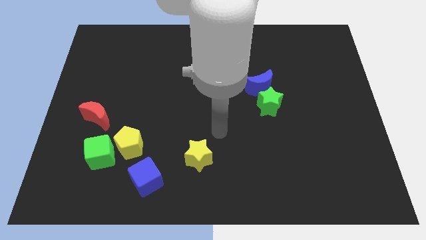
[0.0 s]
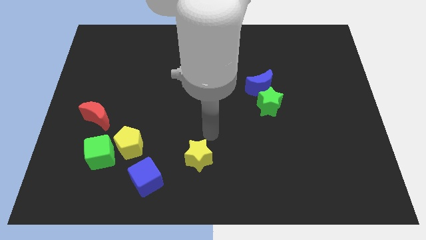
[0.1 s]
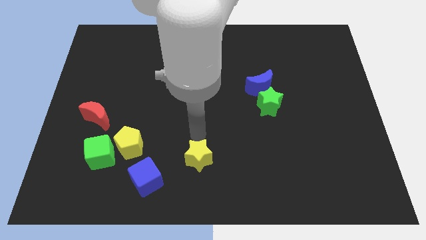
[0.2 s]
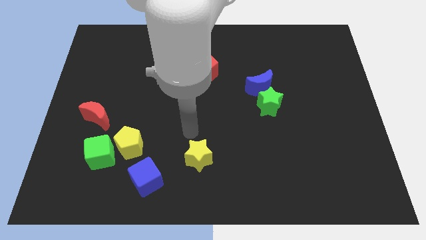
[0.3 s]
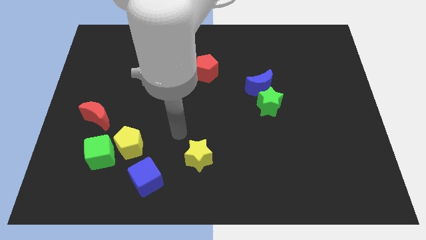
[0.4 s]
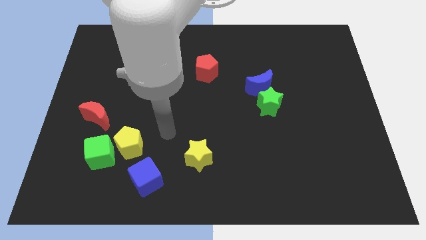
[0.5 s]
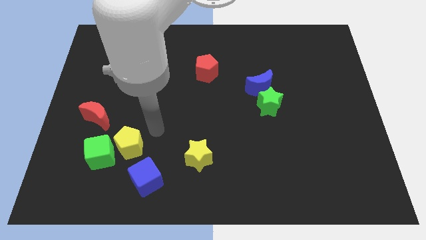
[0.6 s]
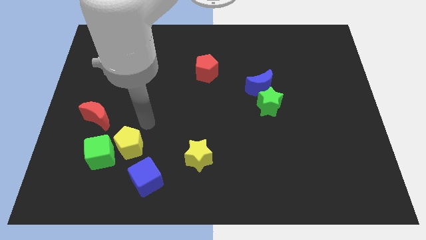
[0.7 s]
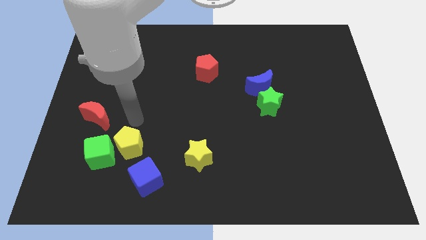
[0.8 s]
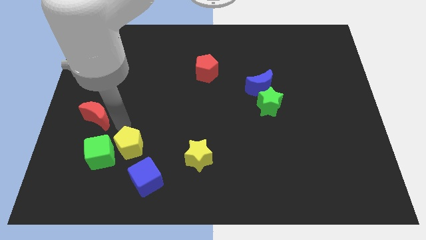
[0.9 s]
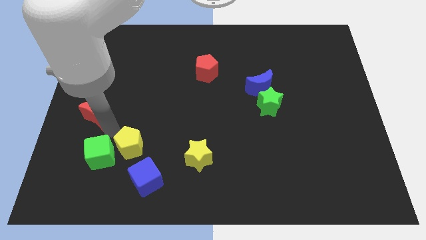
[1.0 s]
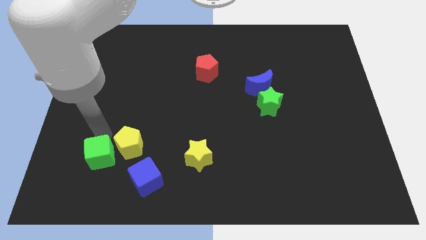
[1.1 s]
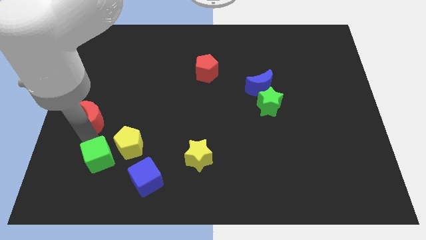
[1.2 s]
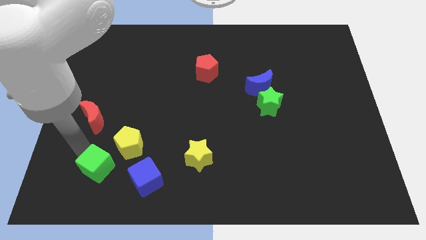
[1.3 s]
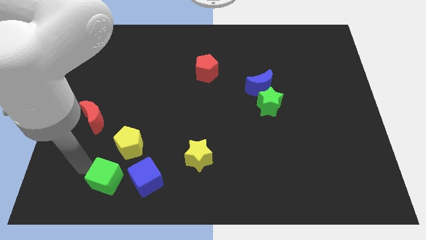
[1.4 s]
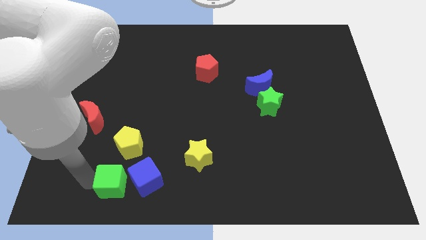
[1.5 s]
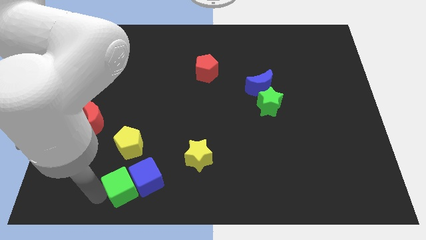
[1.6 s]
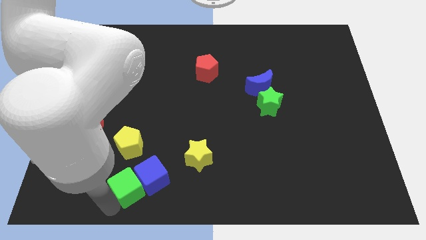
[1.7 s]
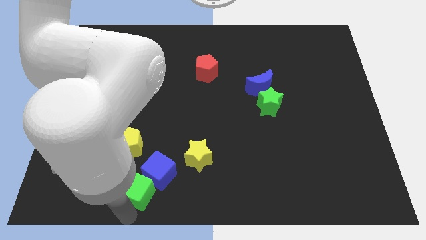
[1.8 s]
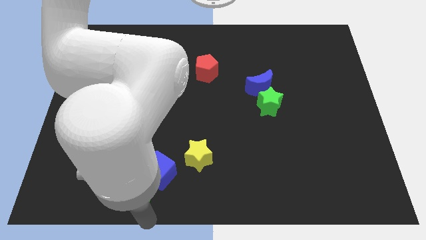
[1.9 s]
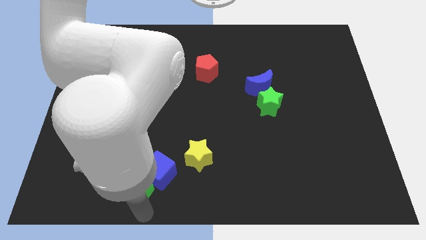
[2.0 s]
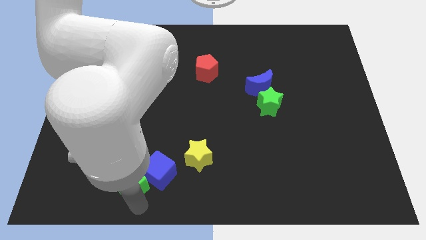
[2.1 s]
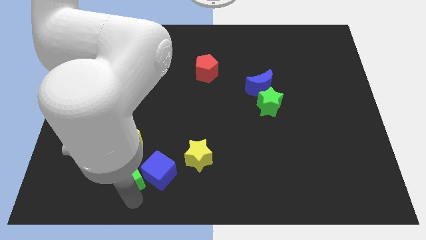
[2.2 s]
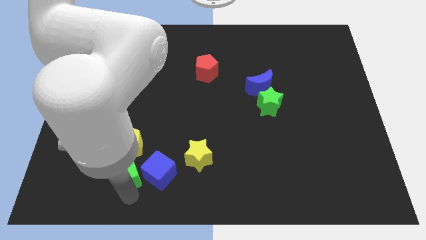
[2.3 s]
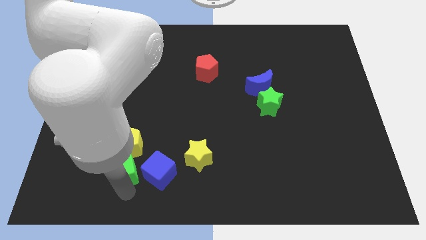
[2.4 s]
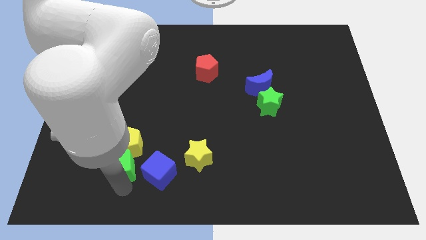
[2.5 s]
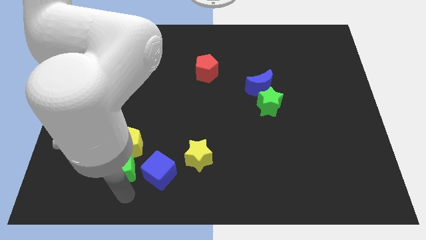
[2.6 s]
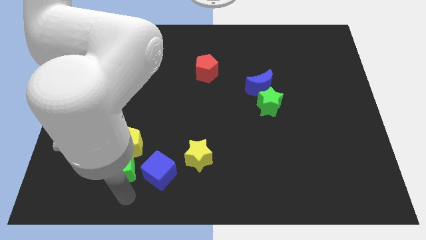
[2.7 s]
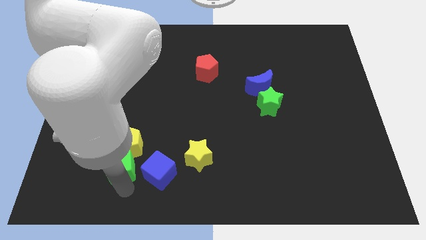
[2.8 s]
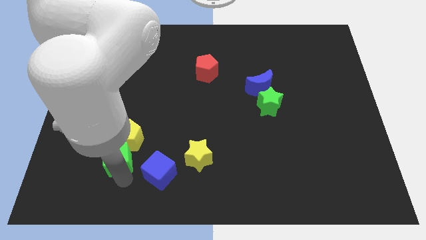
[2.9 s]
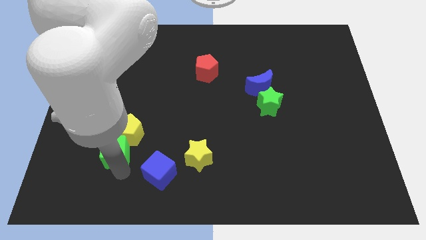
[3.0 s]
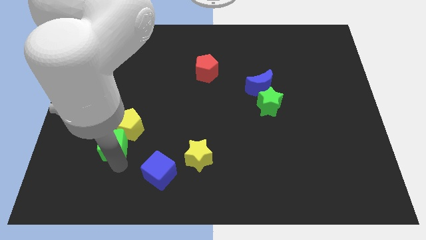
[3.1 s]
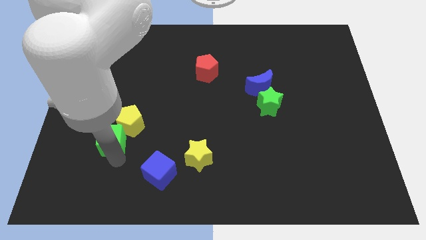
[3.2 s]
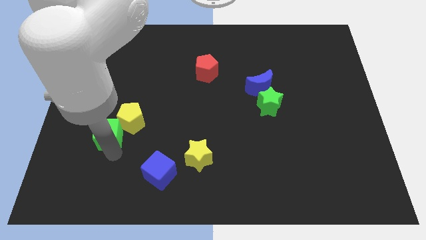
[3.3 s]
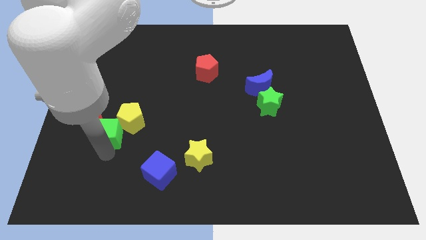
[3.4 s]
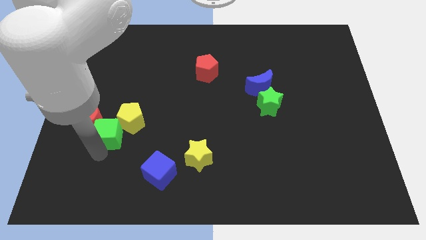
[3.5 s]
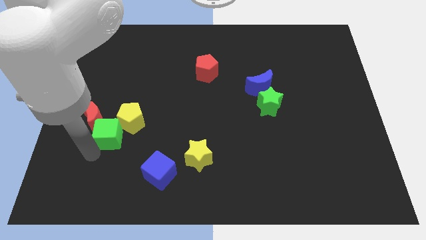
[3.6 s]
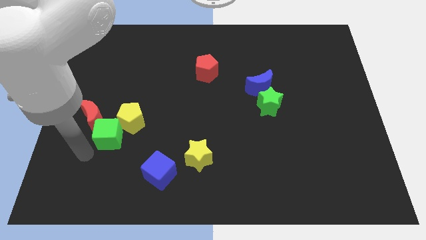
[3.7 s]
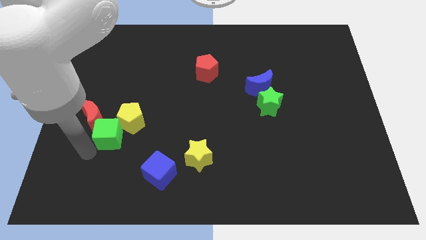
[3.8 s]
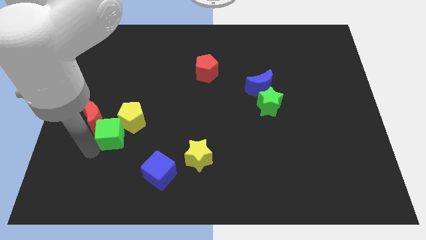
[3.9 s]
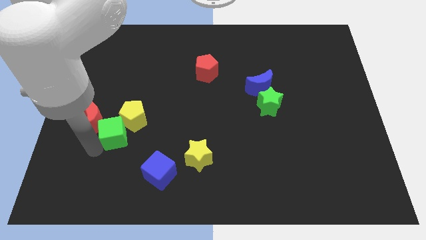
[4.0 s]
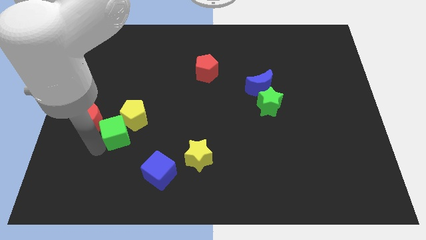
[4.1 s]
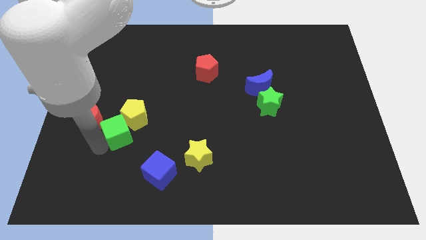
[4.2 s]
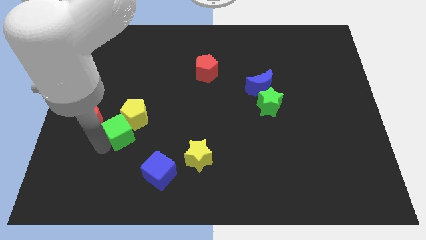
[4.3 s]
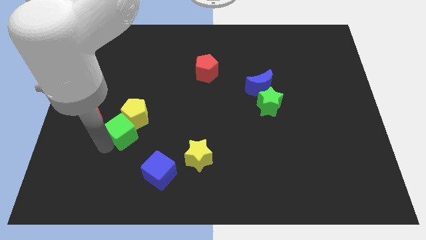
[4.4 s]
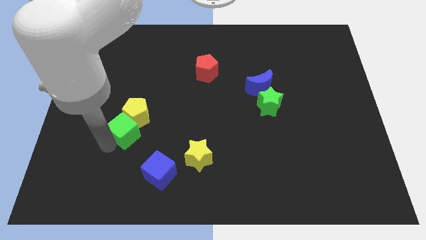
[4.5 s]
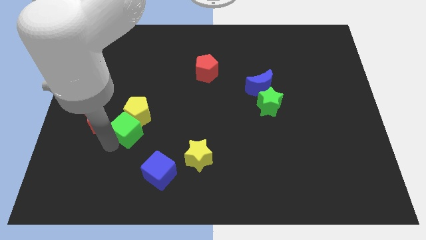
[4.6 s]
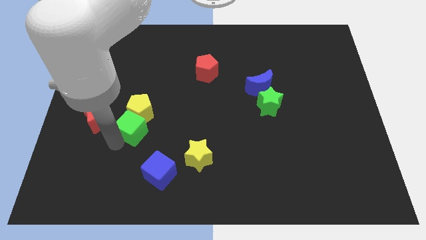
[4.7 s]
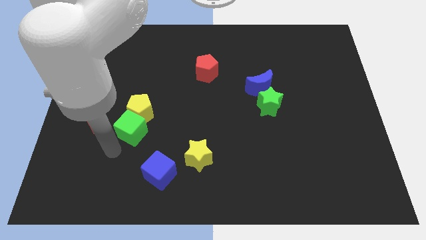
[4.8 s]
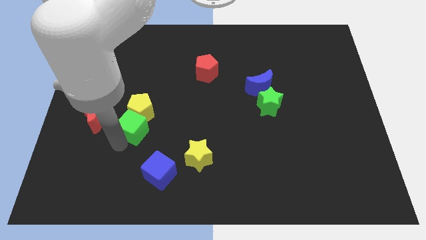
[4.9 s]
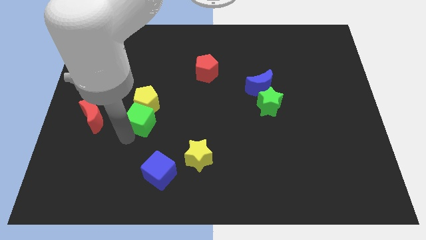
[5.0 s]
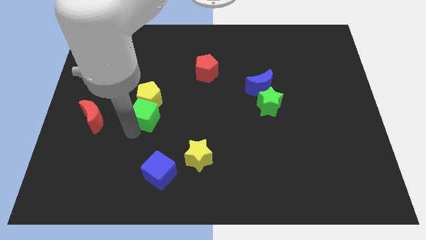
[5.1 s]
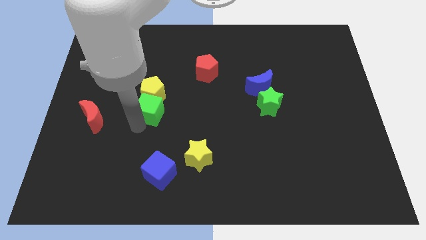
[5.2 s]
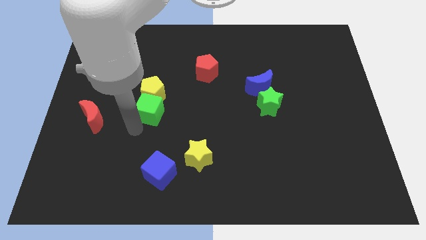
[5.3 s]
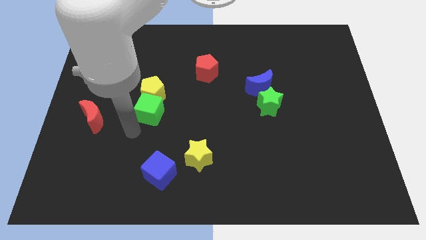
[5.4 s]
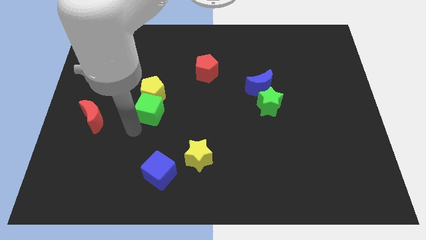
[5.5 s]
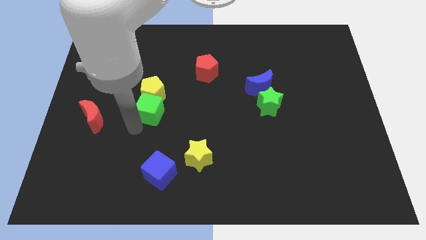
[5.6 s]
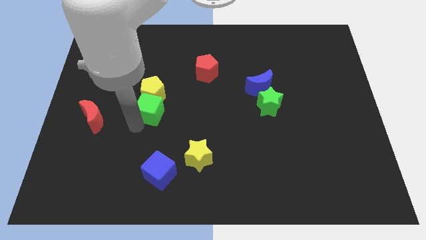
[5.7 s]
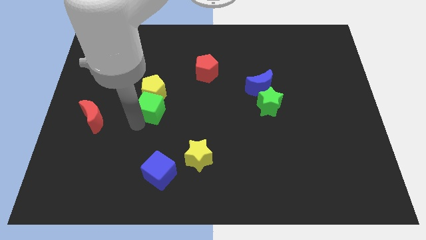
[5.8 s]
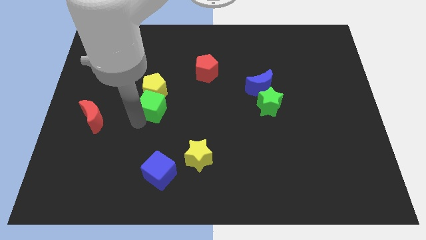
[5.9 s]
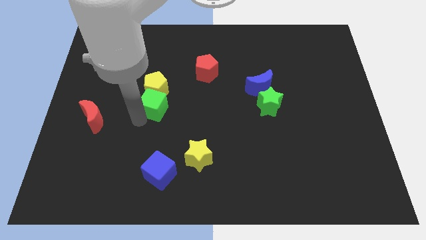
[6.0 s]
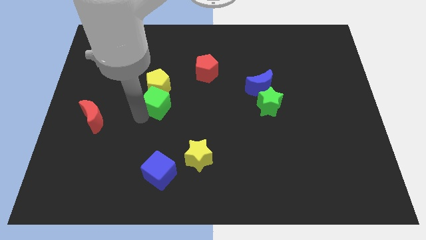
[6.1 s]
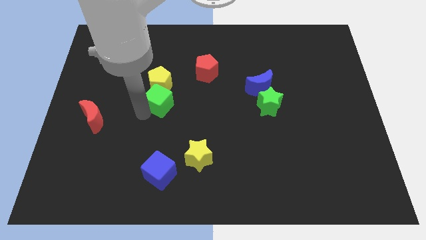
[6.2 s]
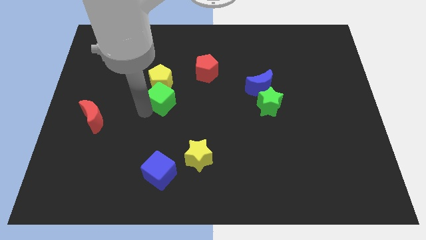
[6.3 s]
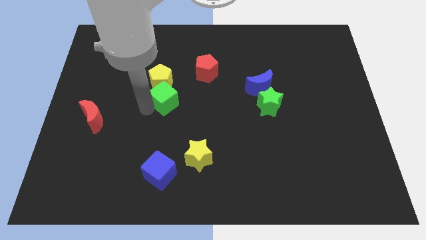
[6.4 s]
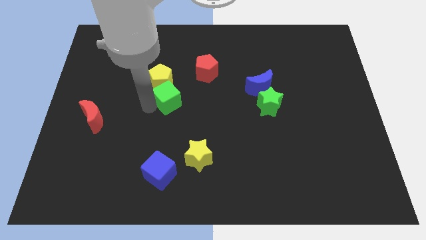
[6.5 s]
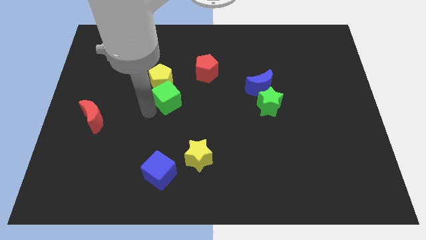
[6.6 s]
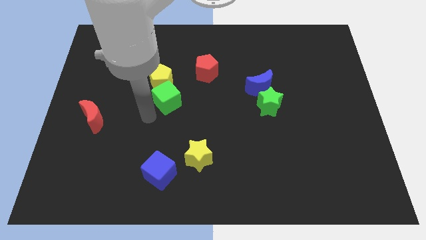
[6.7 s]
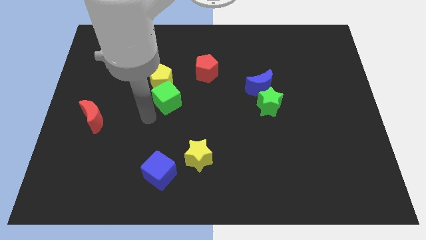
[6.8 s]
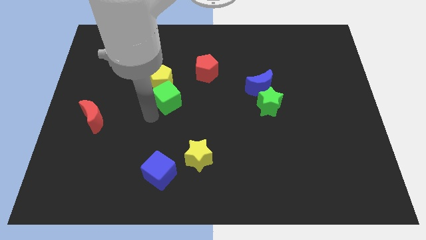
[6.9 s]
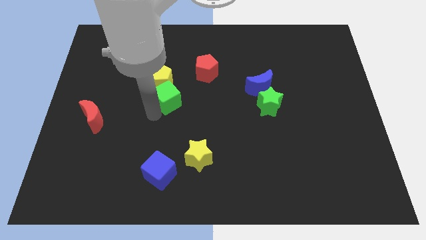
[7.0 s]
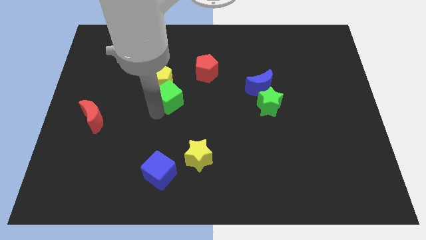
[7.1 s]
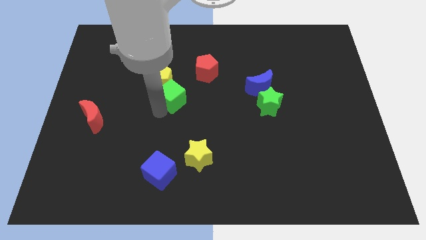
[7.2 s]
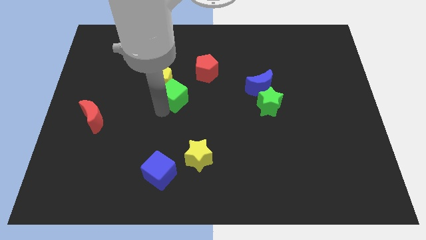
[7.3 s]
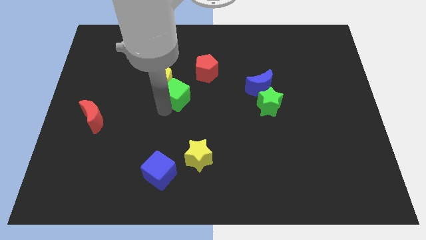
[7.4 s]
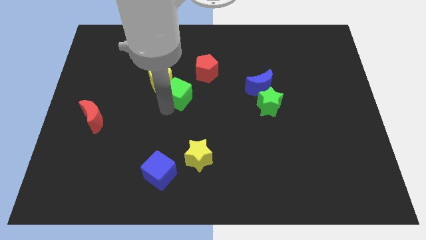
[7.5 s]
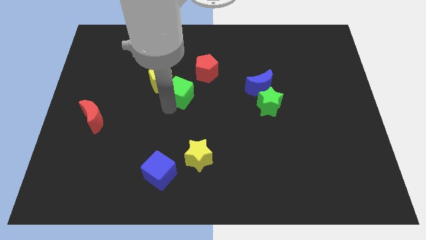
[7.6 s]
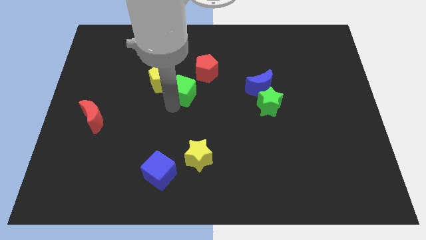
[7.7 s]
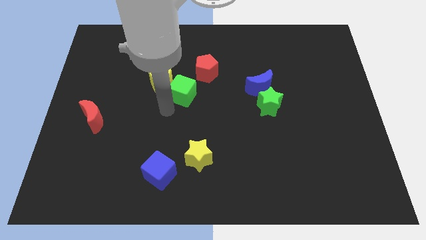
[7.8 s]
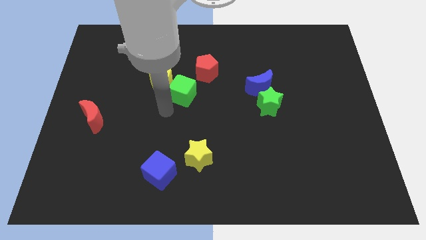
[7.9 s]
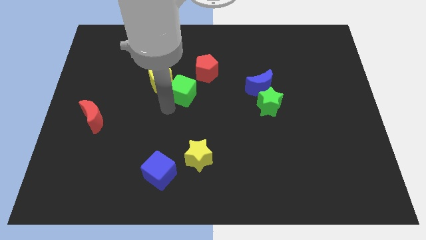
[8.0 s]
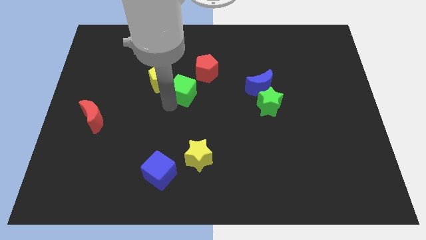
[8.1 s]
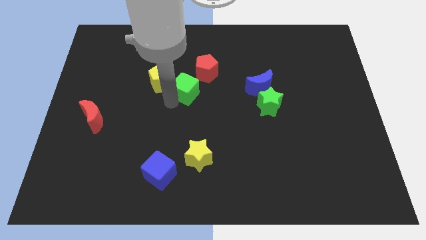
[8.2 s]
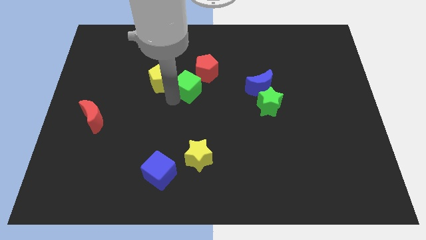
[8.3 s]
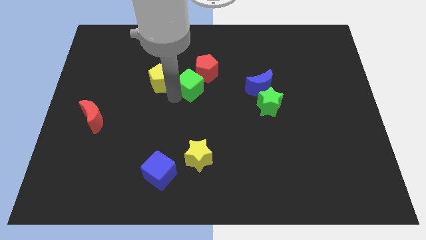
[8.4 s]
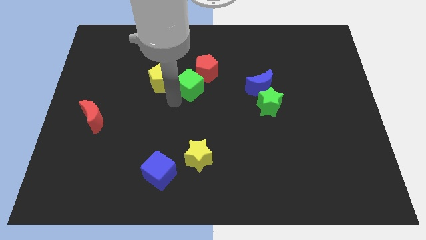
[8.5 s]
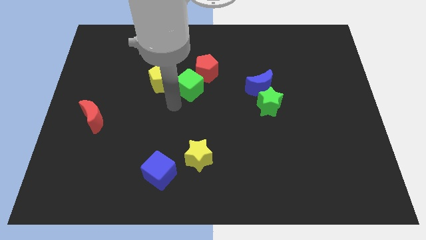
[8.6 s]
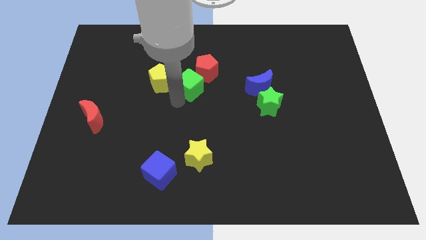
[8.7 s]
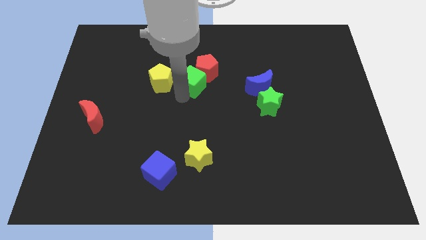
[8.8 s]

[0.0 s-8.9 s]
move the green cube next to the red pentagon
